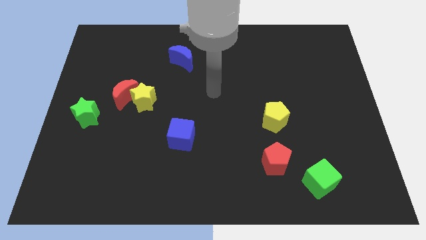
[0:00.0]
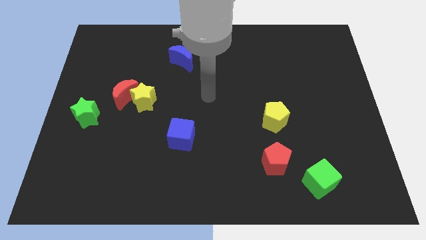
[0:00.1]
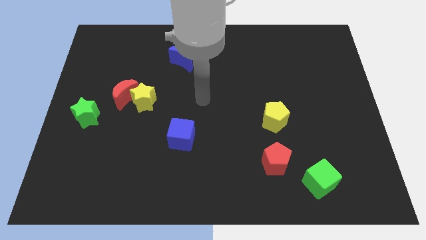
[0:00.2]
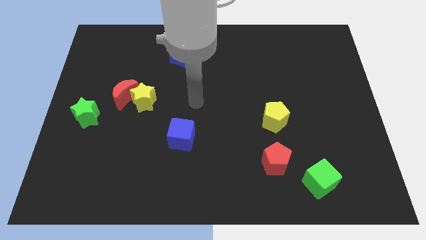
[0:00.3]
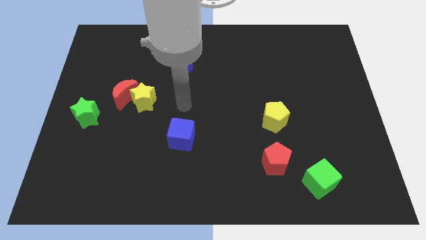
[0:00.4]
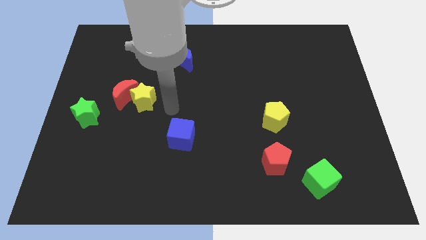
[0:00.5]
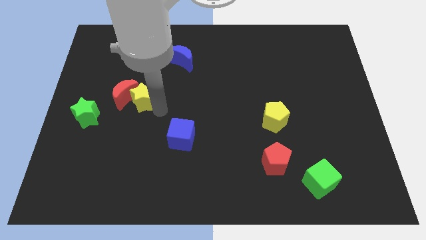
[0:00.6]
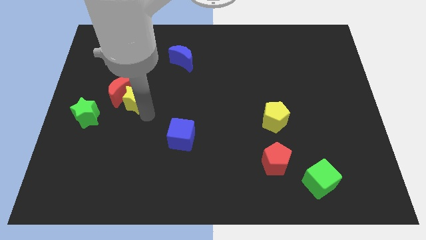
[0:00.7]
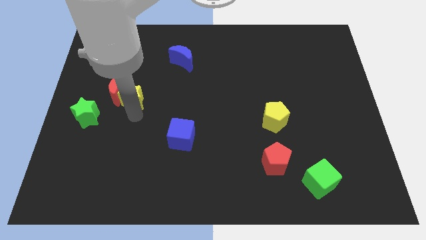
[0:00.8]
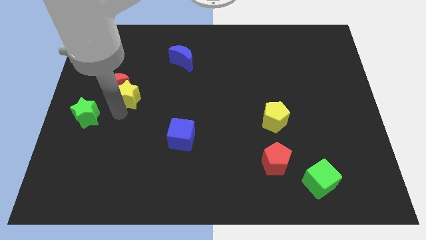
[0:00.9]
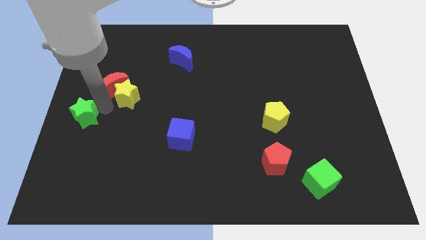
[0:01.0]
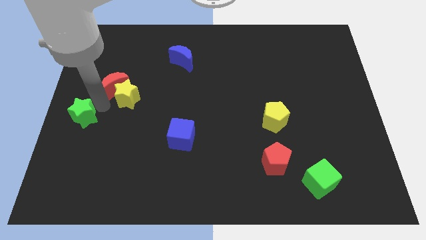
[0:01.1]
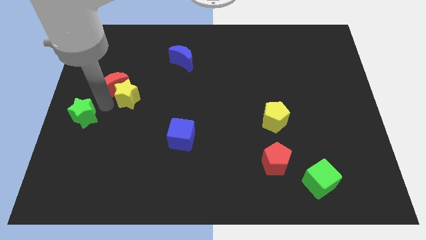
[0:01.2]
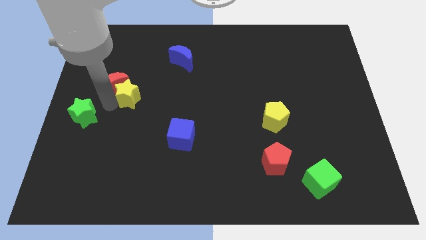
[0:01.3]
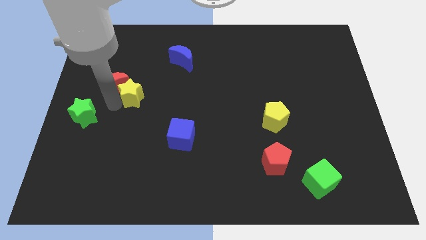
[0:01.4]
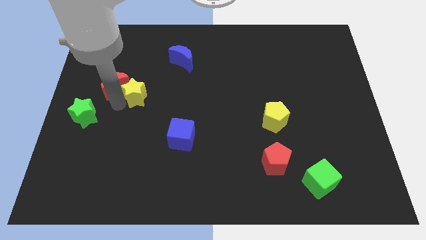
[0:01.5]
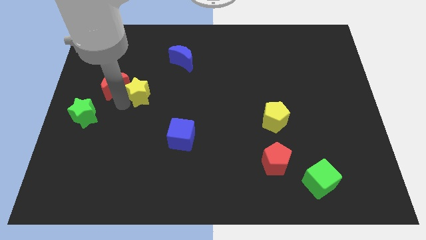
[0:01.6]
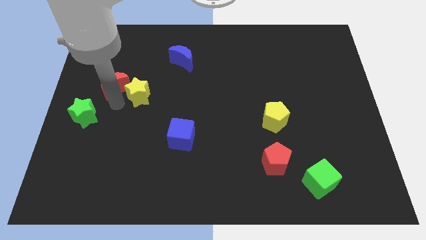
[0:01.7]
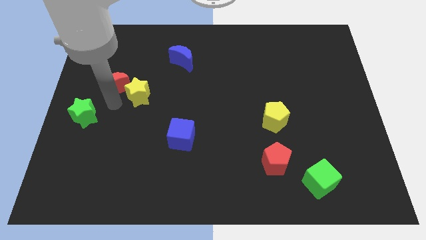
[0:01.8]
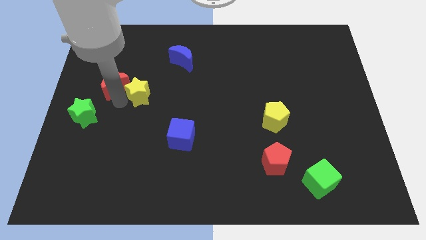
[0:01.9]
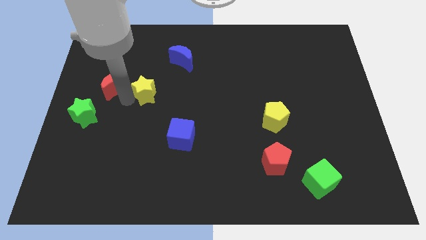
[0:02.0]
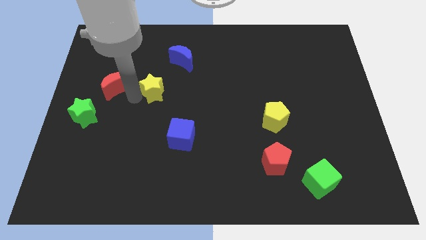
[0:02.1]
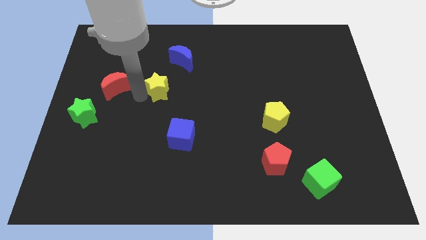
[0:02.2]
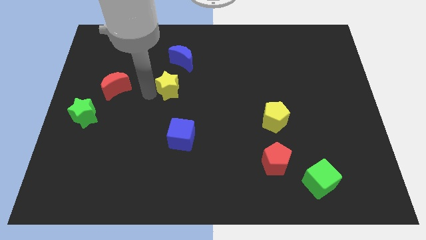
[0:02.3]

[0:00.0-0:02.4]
move the yellow star up and right somewhat

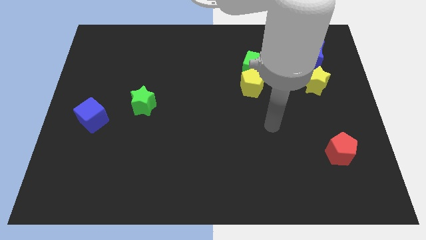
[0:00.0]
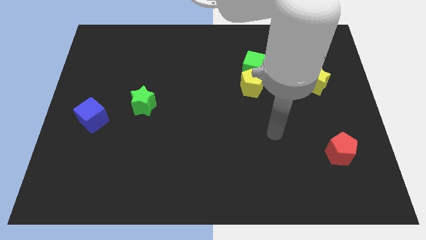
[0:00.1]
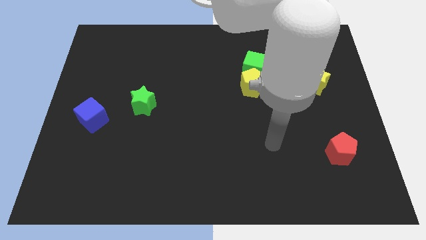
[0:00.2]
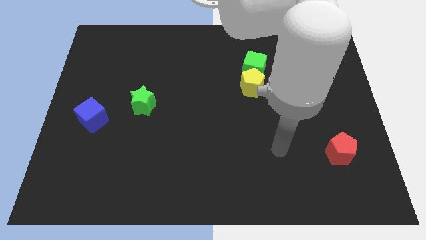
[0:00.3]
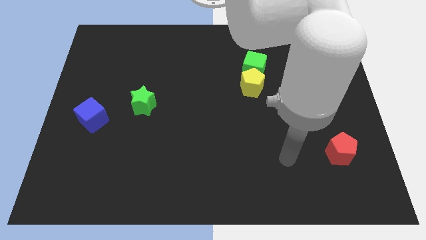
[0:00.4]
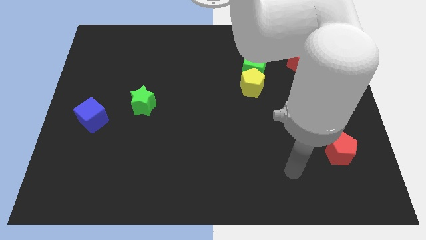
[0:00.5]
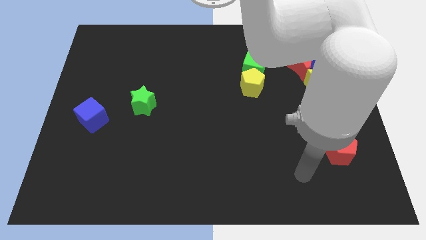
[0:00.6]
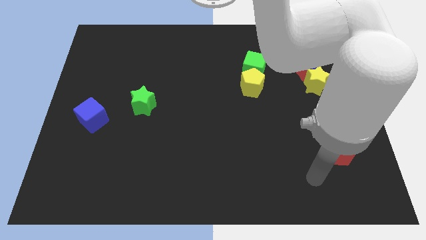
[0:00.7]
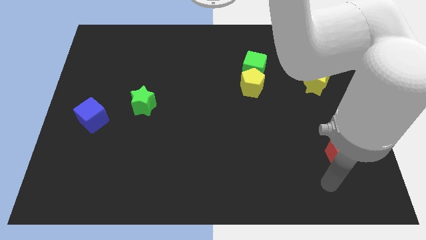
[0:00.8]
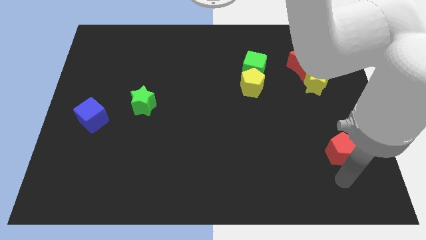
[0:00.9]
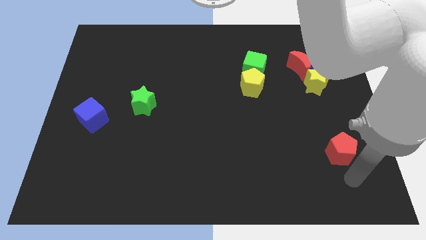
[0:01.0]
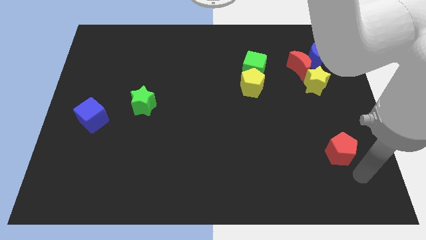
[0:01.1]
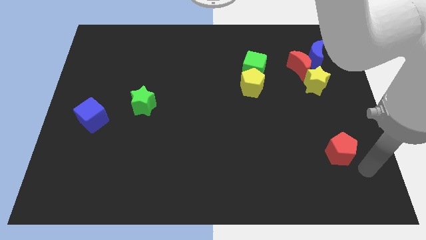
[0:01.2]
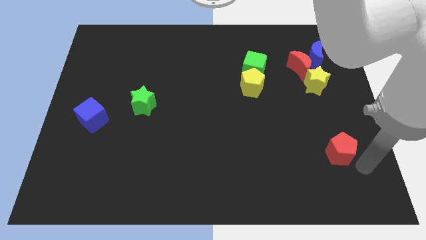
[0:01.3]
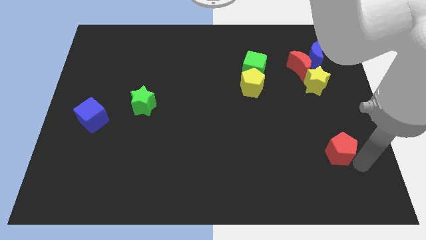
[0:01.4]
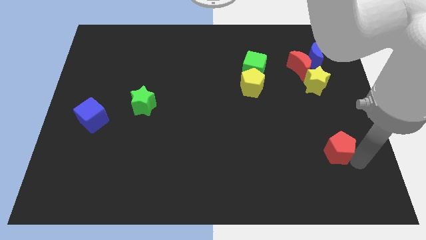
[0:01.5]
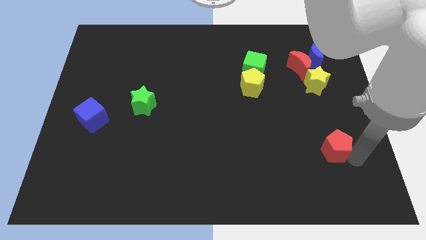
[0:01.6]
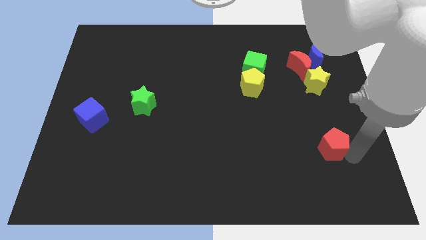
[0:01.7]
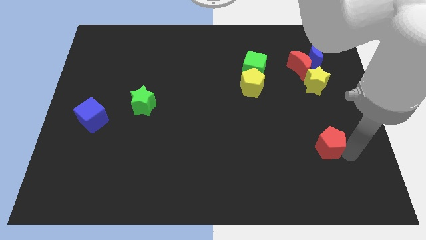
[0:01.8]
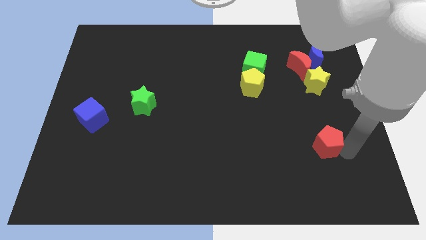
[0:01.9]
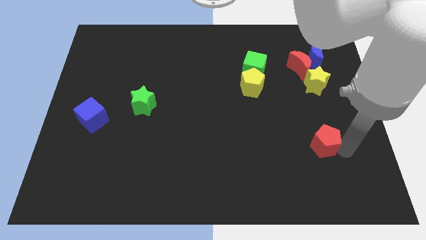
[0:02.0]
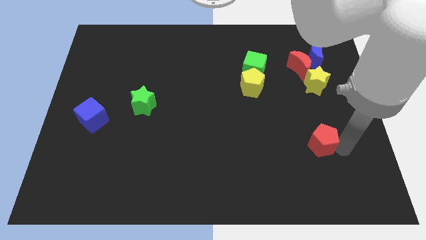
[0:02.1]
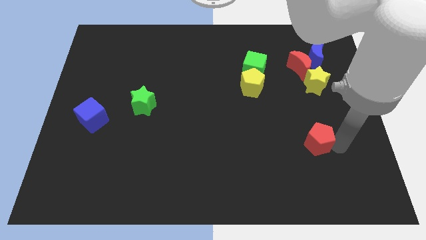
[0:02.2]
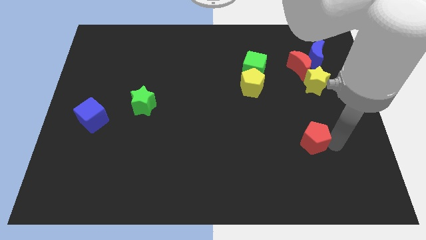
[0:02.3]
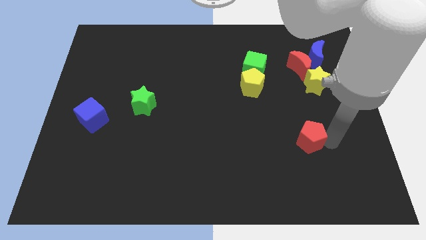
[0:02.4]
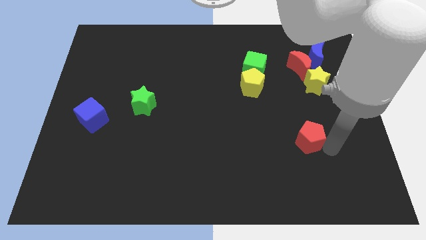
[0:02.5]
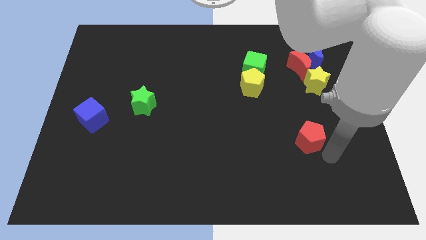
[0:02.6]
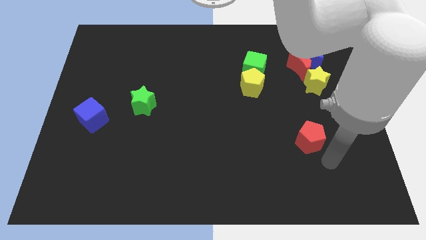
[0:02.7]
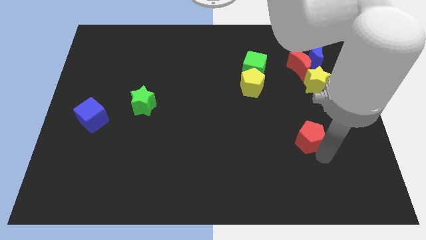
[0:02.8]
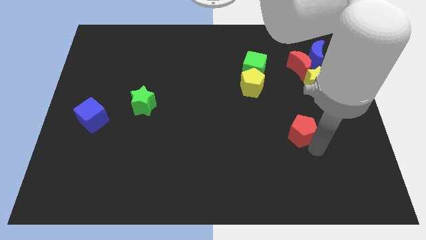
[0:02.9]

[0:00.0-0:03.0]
push the red pentagon diagonally up and to the left a bit

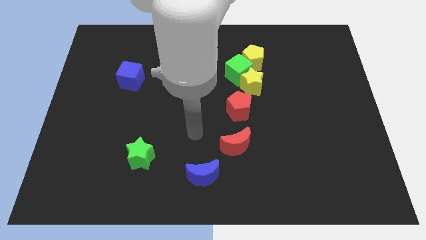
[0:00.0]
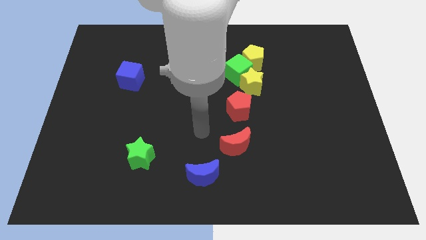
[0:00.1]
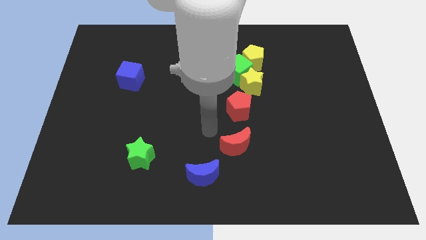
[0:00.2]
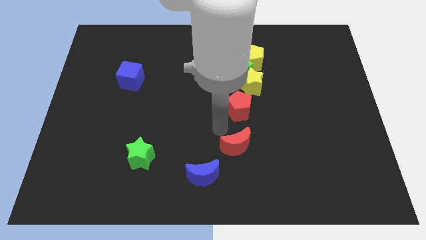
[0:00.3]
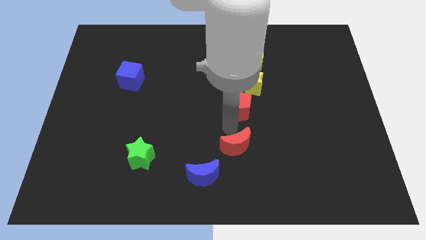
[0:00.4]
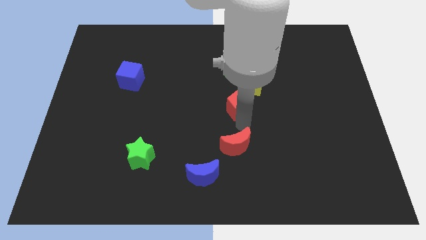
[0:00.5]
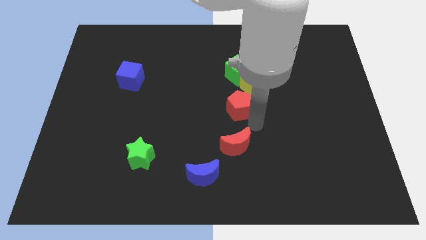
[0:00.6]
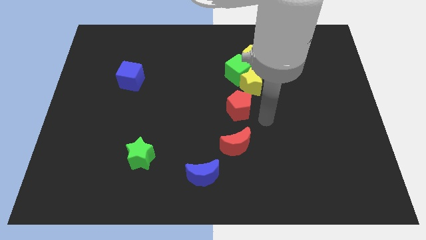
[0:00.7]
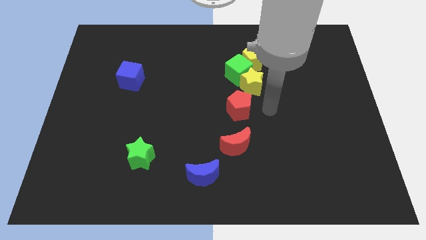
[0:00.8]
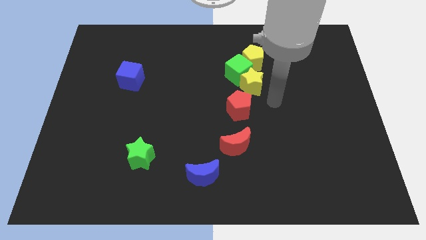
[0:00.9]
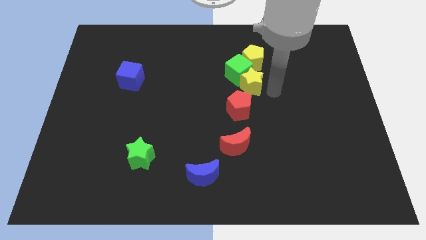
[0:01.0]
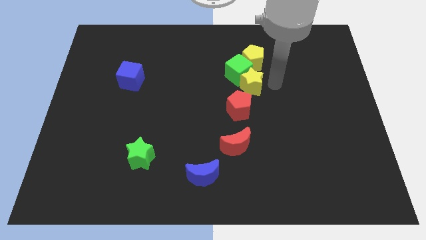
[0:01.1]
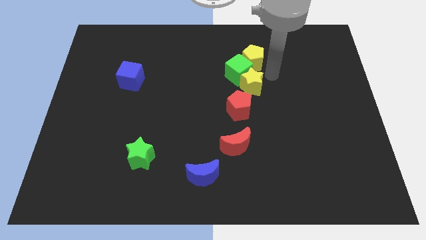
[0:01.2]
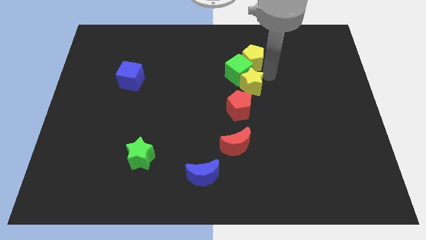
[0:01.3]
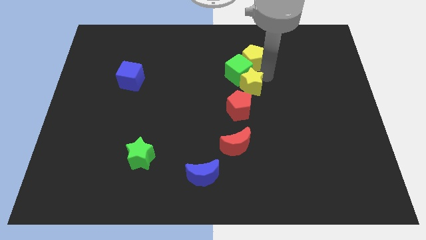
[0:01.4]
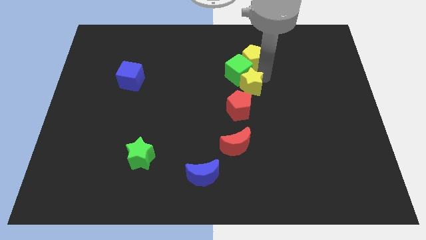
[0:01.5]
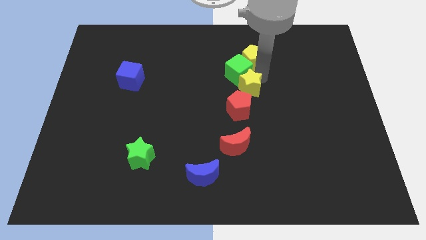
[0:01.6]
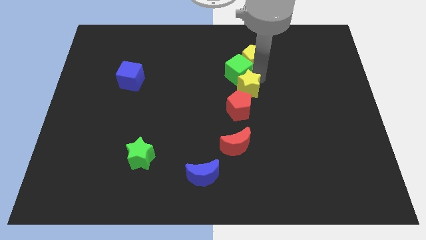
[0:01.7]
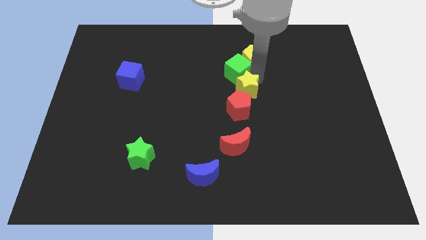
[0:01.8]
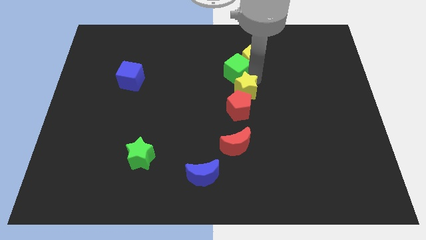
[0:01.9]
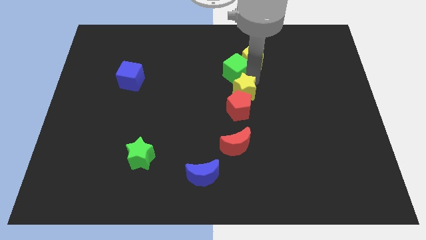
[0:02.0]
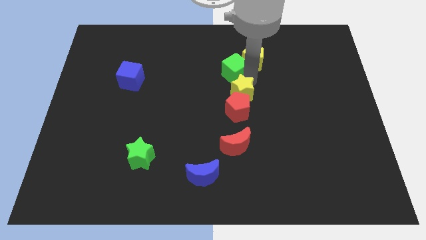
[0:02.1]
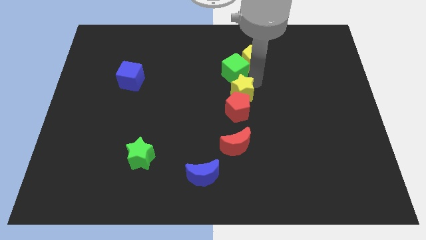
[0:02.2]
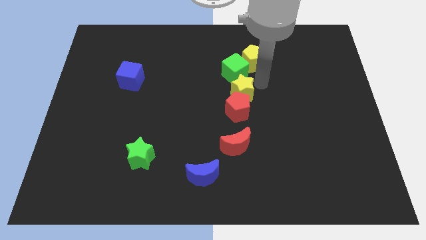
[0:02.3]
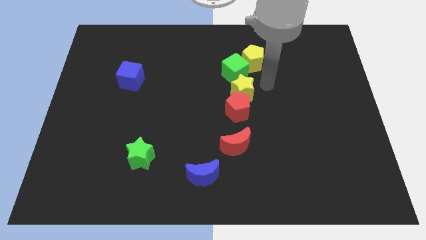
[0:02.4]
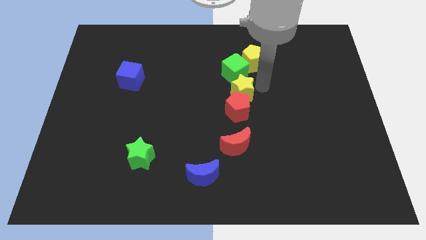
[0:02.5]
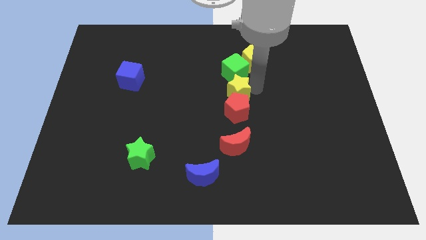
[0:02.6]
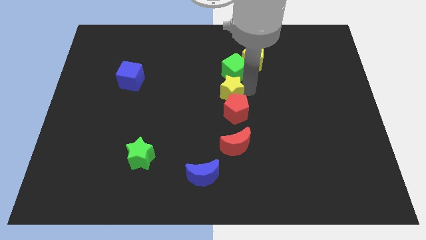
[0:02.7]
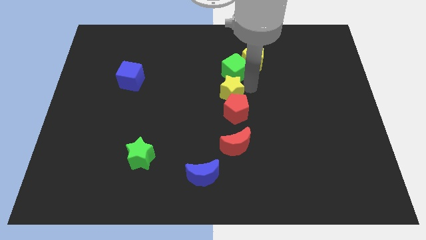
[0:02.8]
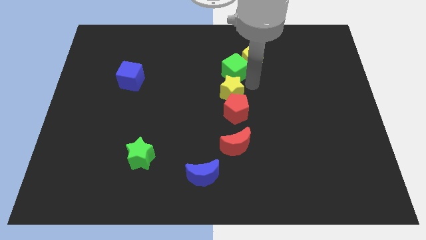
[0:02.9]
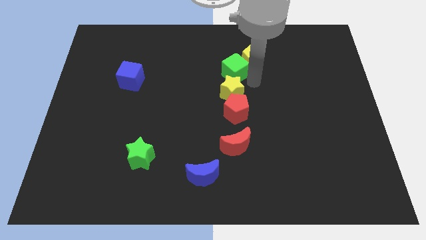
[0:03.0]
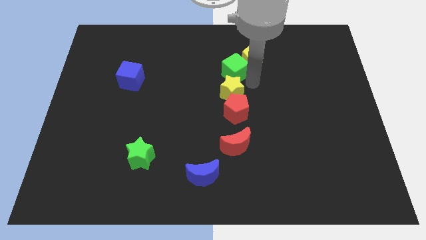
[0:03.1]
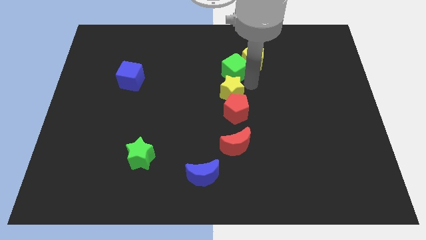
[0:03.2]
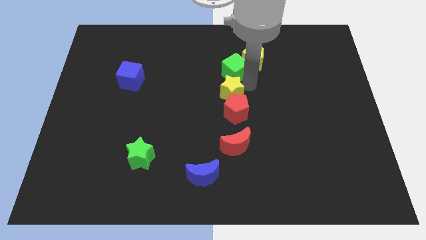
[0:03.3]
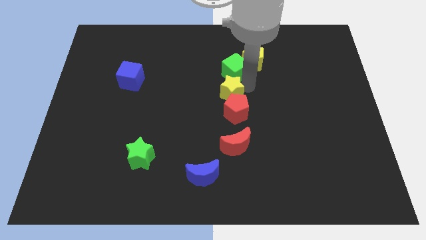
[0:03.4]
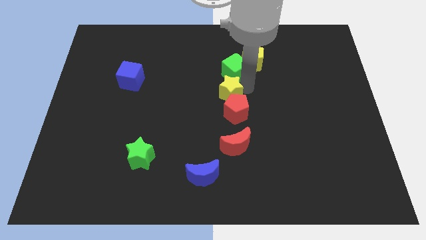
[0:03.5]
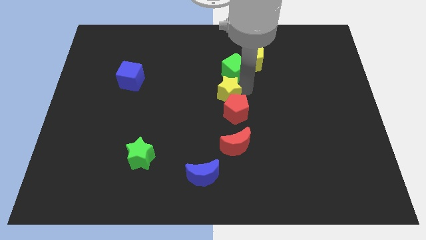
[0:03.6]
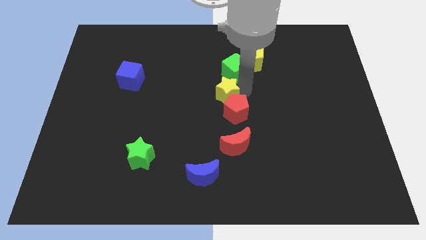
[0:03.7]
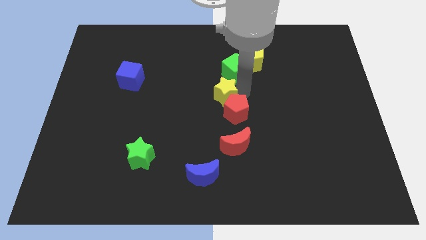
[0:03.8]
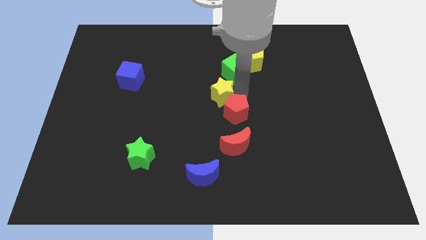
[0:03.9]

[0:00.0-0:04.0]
slide the yellow star diagonally down and left slightly
